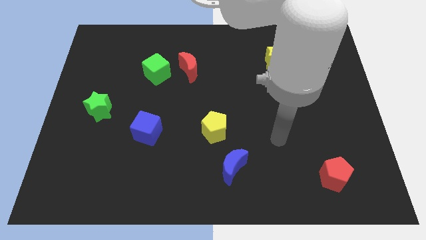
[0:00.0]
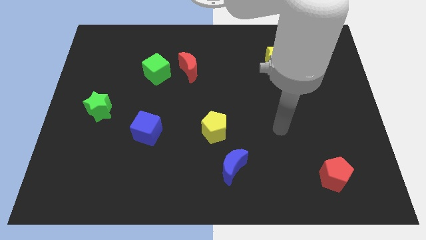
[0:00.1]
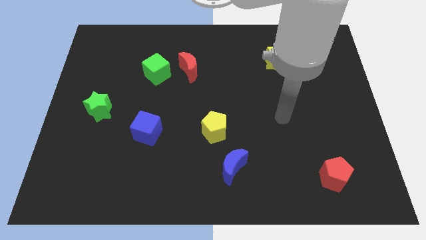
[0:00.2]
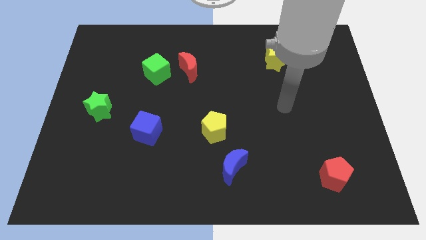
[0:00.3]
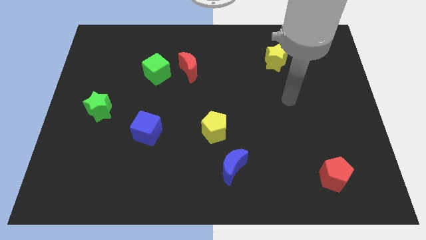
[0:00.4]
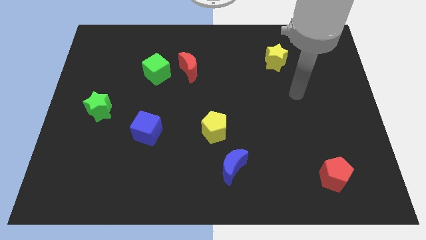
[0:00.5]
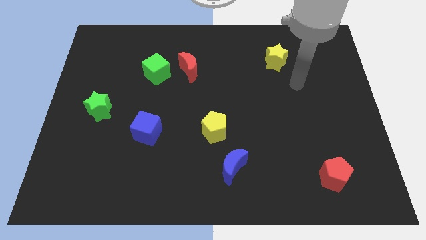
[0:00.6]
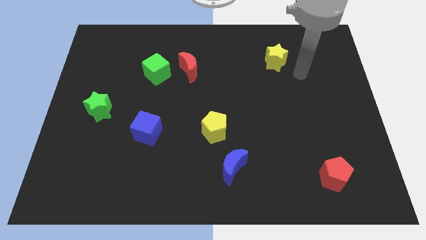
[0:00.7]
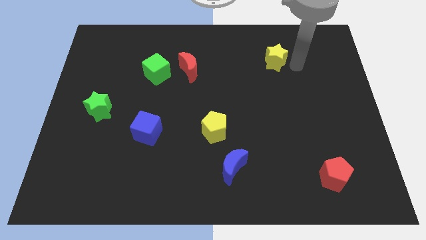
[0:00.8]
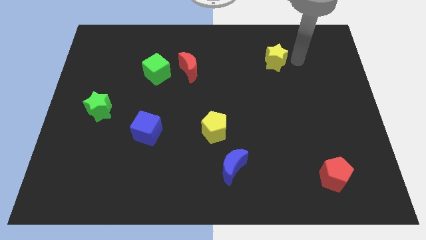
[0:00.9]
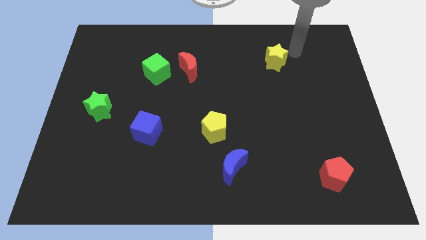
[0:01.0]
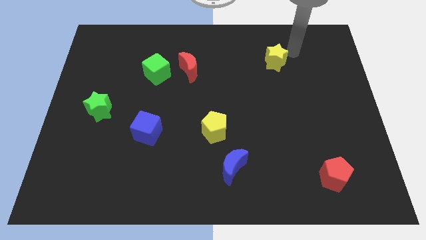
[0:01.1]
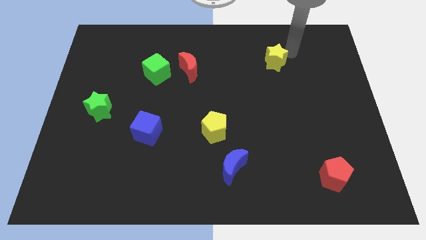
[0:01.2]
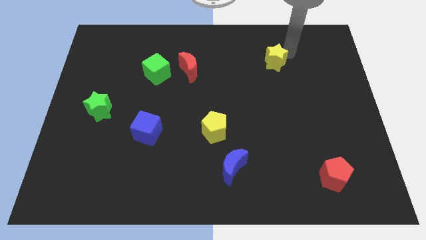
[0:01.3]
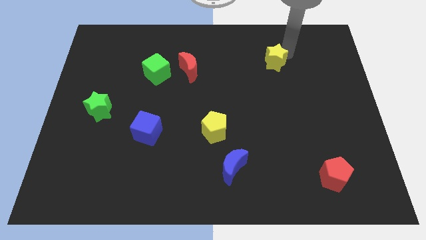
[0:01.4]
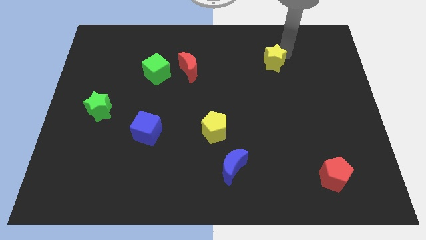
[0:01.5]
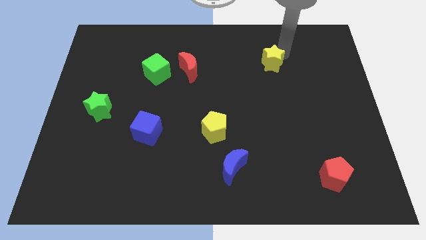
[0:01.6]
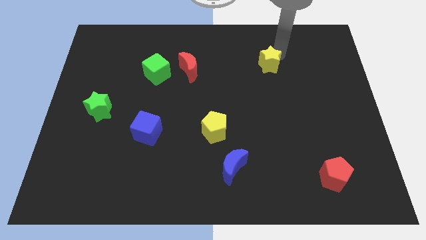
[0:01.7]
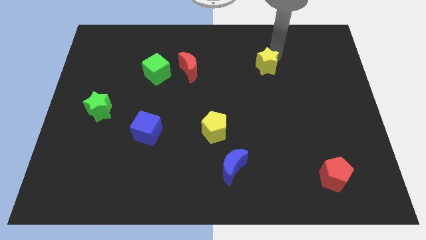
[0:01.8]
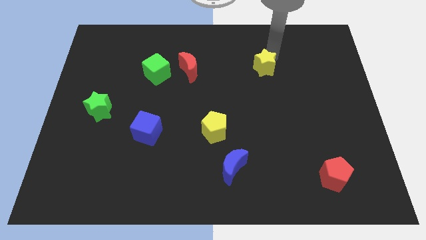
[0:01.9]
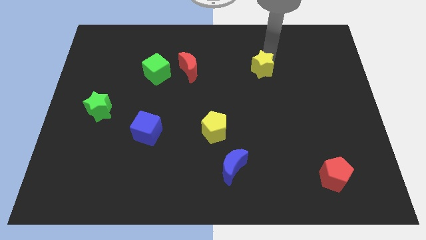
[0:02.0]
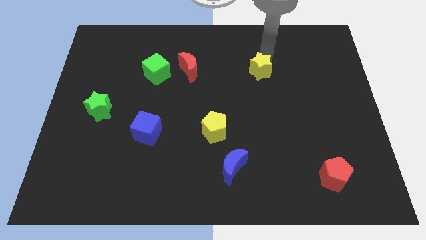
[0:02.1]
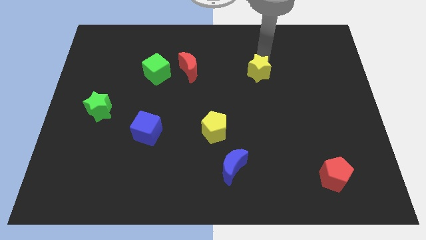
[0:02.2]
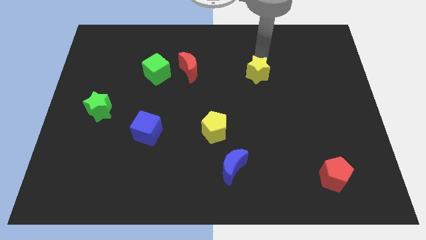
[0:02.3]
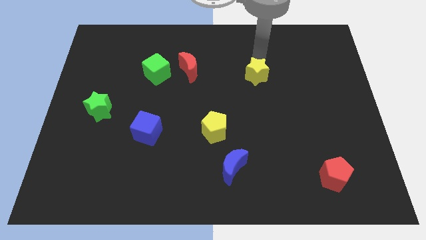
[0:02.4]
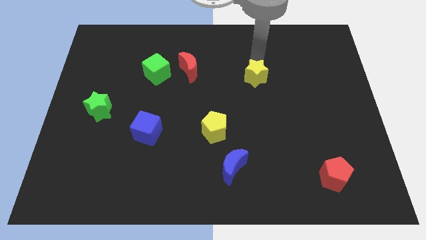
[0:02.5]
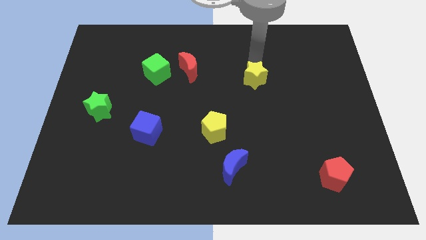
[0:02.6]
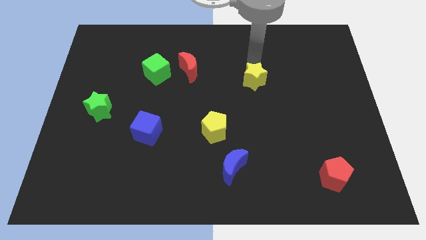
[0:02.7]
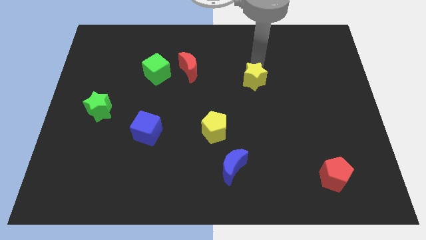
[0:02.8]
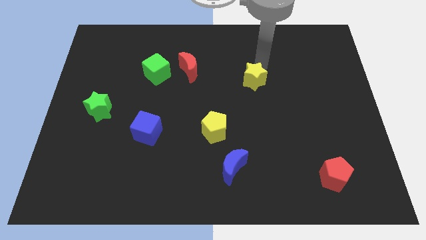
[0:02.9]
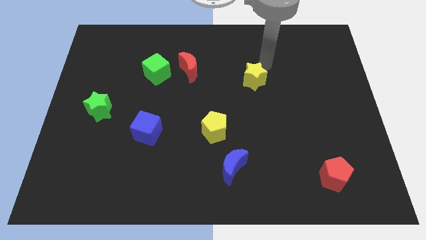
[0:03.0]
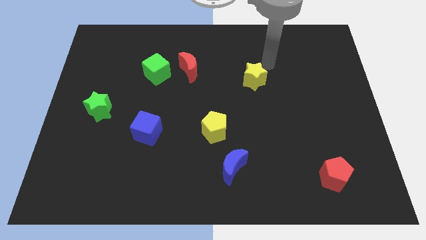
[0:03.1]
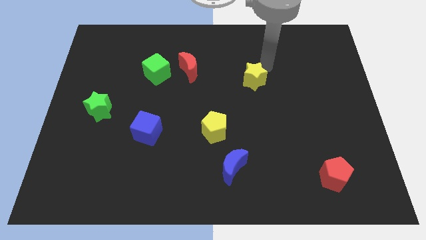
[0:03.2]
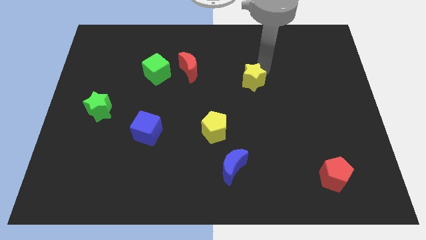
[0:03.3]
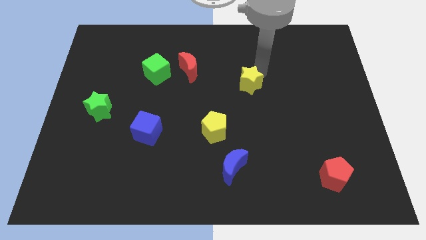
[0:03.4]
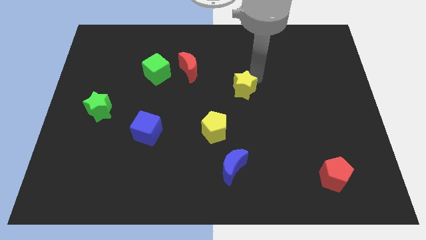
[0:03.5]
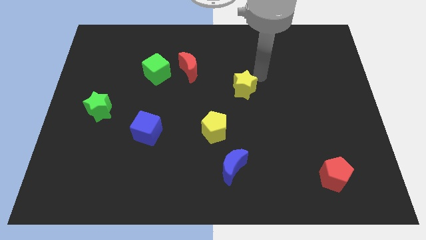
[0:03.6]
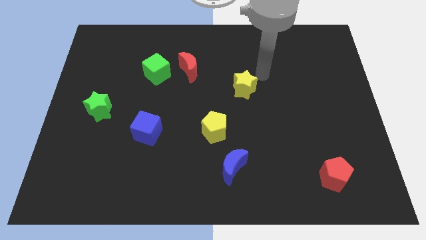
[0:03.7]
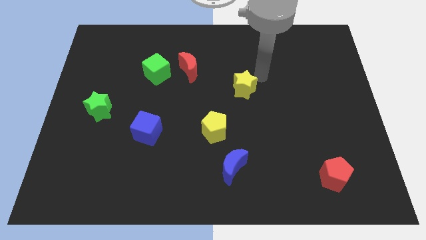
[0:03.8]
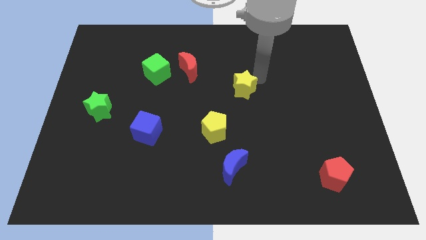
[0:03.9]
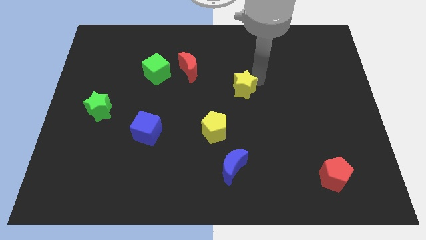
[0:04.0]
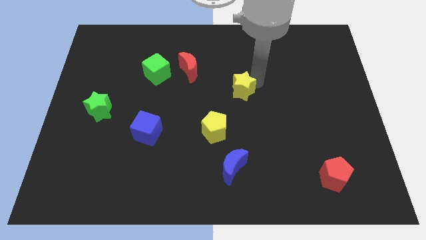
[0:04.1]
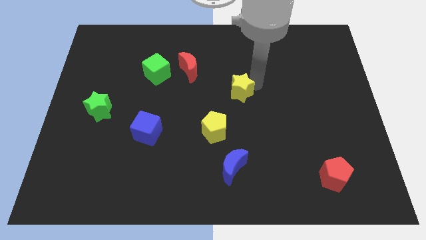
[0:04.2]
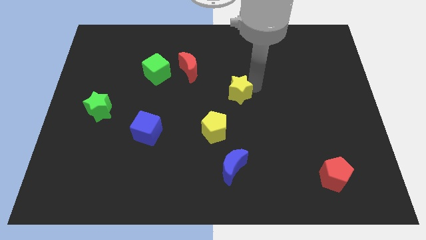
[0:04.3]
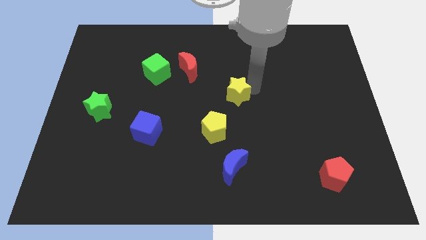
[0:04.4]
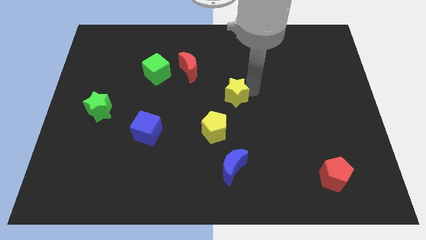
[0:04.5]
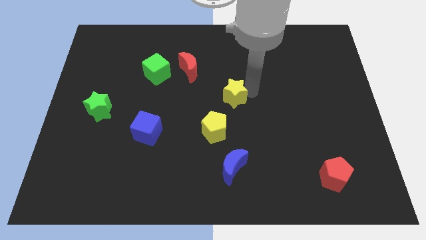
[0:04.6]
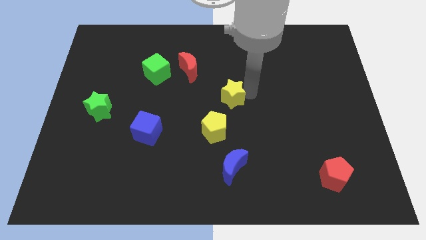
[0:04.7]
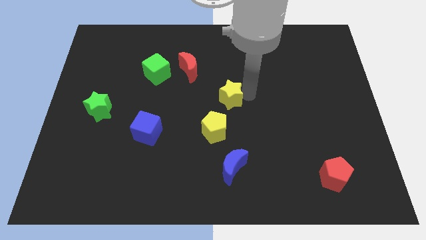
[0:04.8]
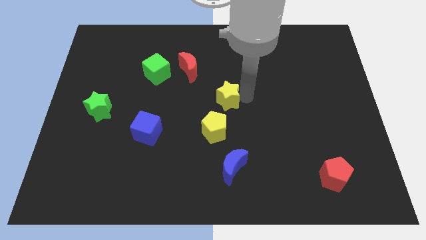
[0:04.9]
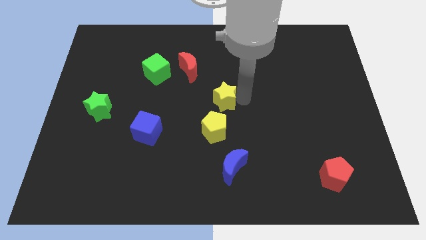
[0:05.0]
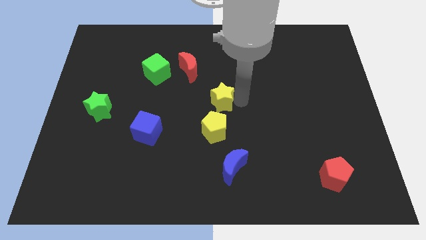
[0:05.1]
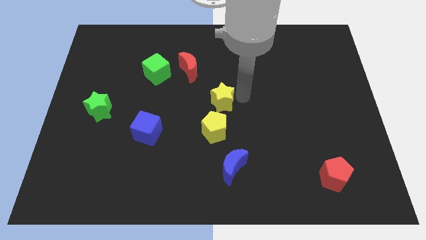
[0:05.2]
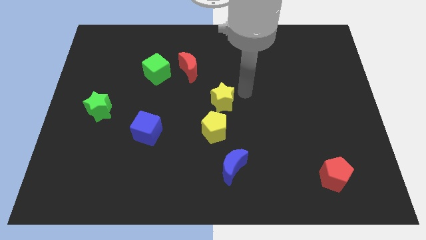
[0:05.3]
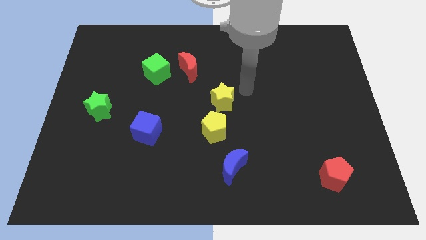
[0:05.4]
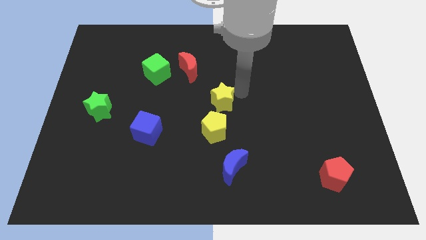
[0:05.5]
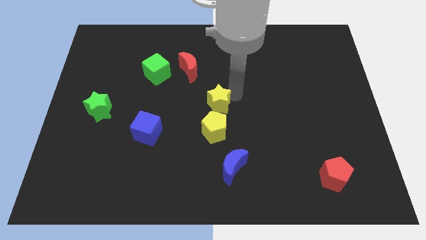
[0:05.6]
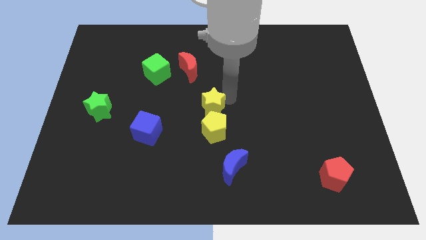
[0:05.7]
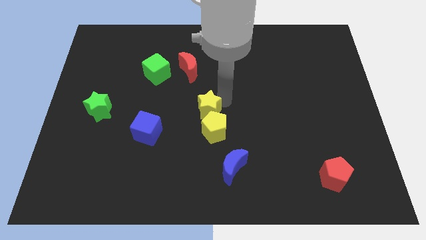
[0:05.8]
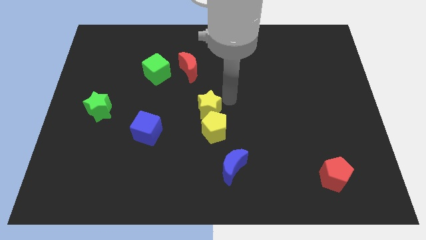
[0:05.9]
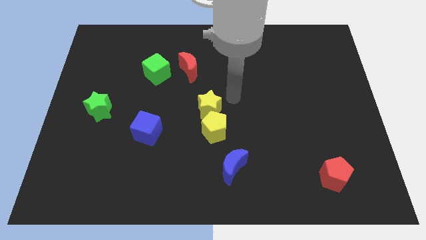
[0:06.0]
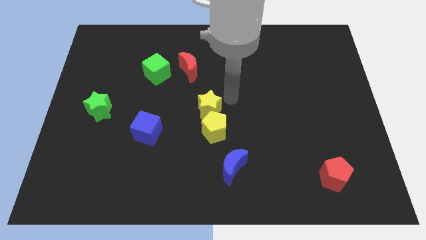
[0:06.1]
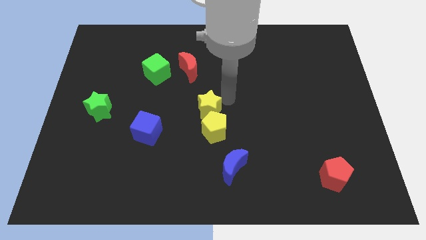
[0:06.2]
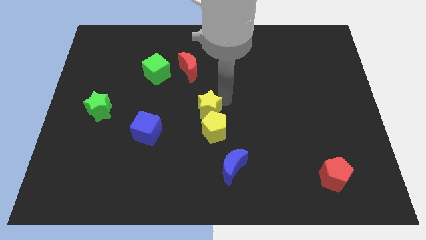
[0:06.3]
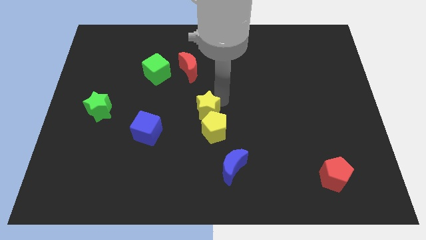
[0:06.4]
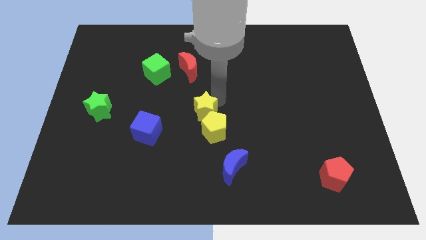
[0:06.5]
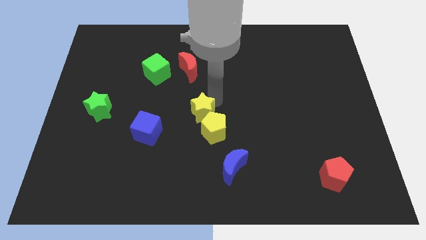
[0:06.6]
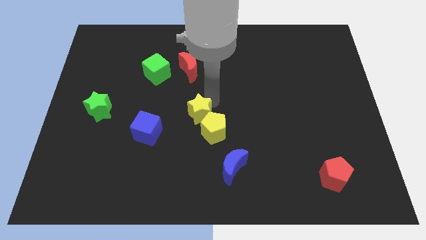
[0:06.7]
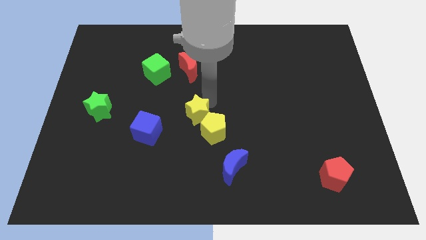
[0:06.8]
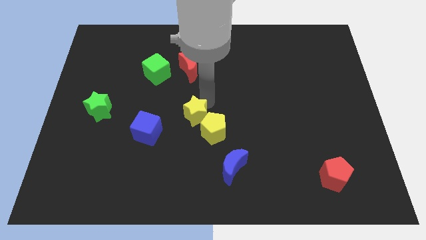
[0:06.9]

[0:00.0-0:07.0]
put the yellow star to the left of the yellow pentagon
